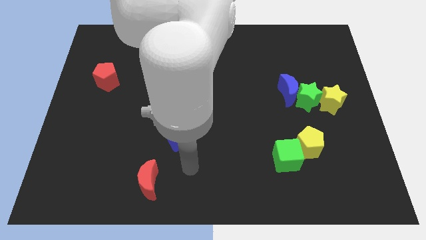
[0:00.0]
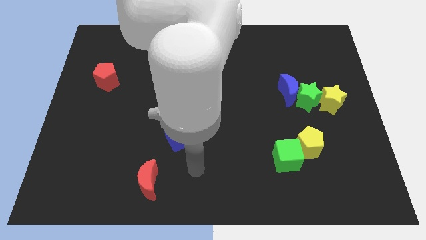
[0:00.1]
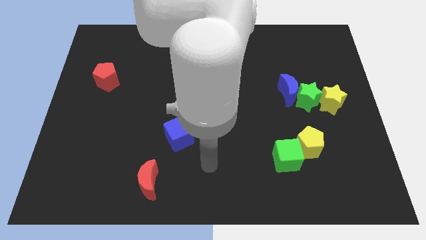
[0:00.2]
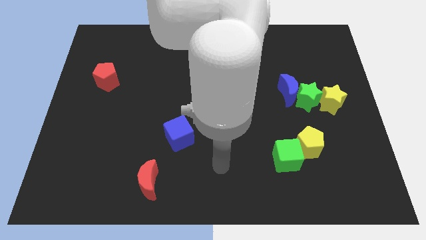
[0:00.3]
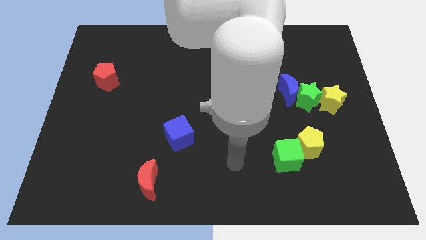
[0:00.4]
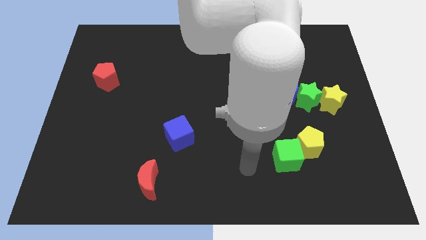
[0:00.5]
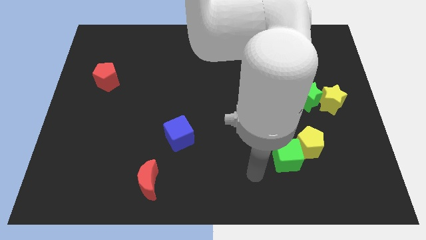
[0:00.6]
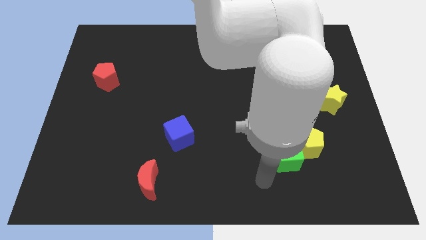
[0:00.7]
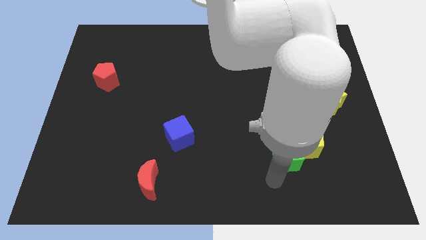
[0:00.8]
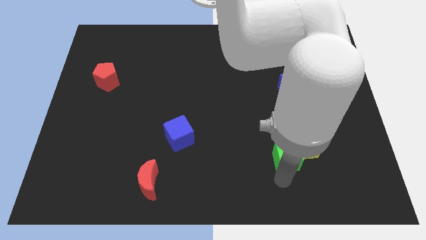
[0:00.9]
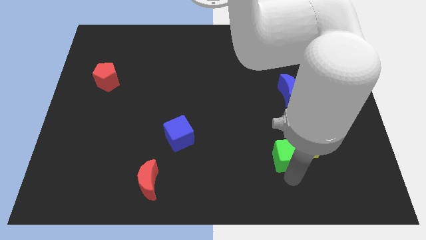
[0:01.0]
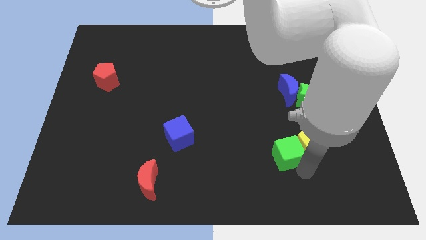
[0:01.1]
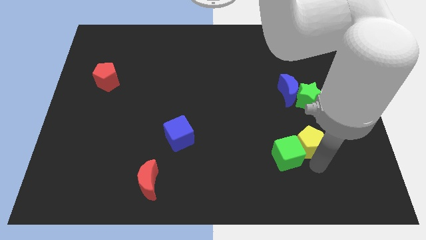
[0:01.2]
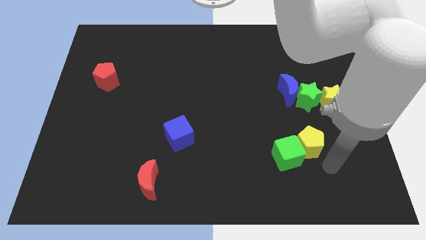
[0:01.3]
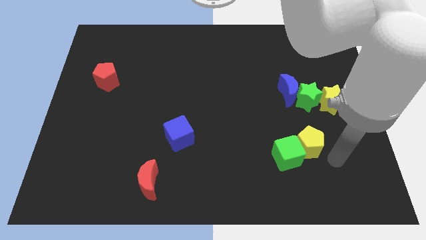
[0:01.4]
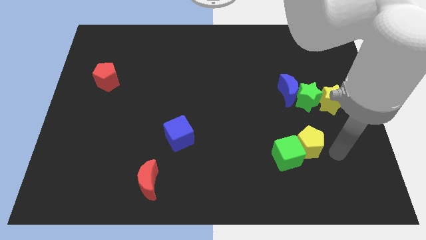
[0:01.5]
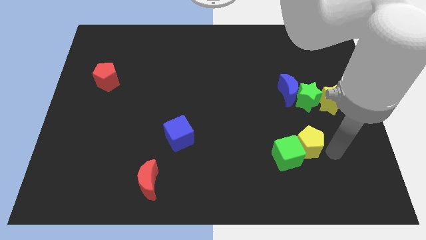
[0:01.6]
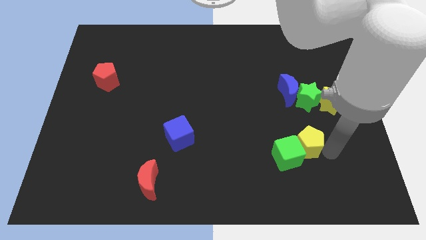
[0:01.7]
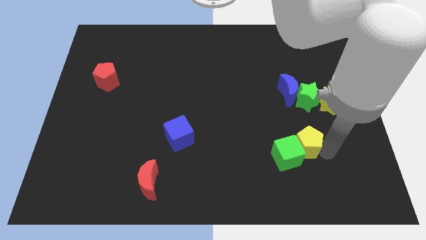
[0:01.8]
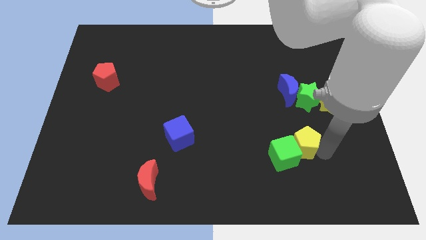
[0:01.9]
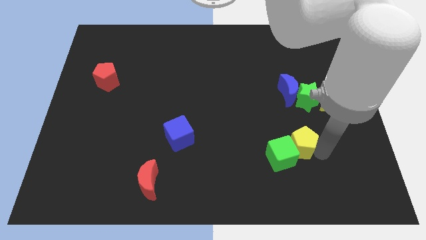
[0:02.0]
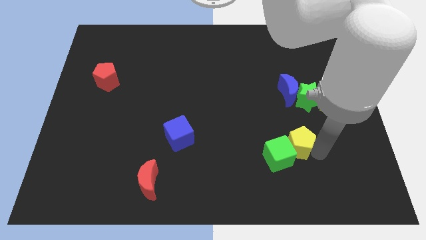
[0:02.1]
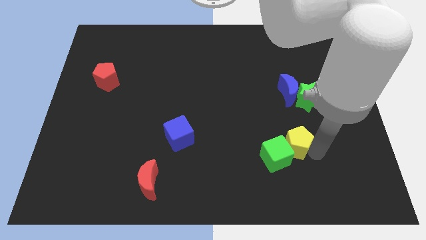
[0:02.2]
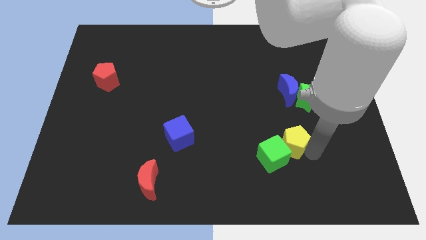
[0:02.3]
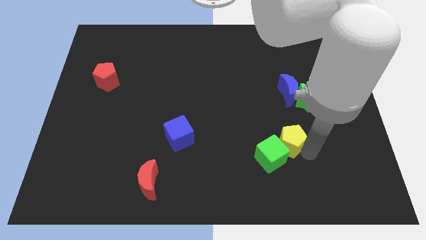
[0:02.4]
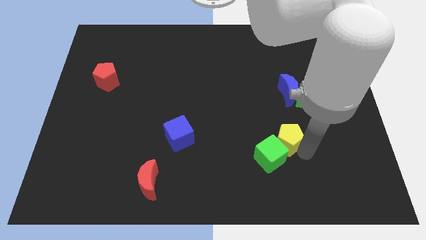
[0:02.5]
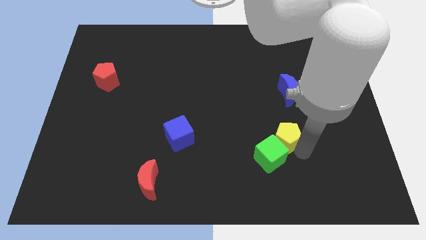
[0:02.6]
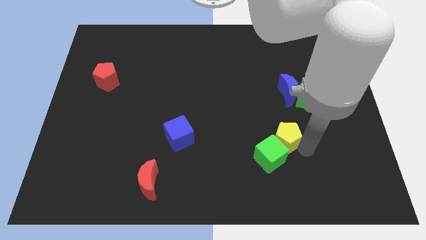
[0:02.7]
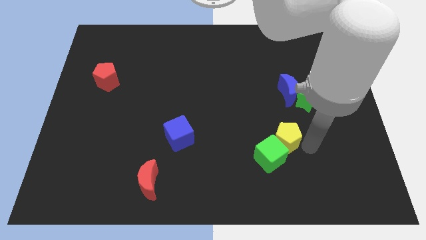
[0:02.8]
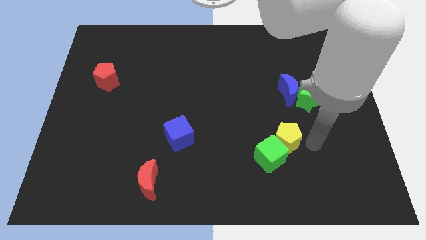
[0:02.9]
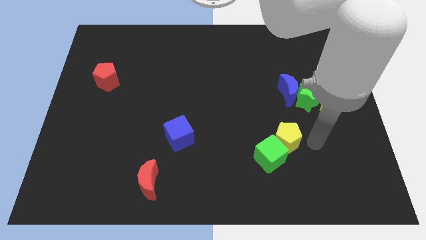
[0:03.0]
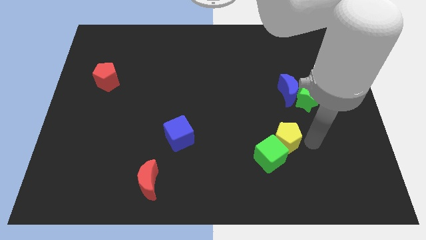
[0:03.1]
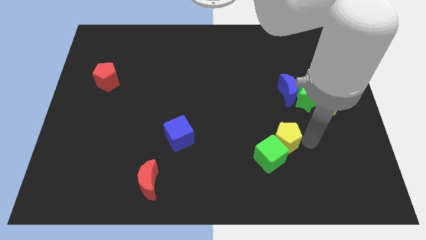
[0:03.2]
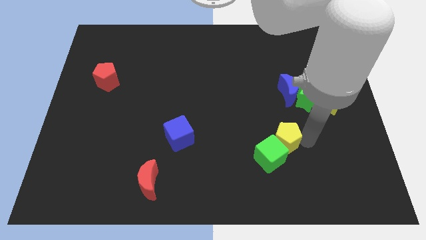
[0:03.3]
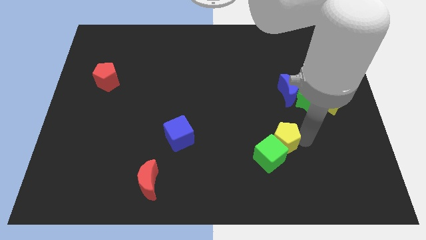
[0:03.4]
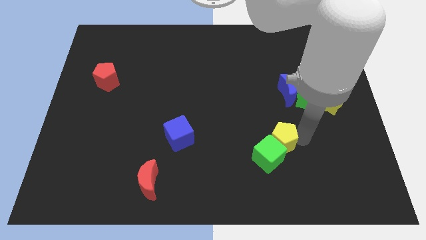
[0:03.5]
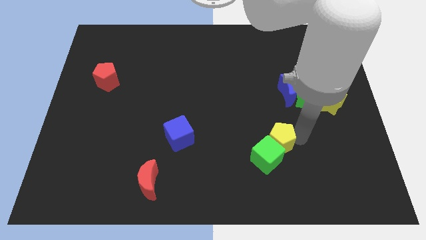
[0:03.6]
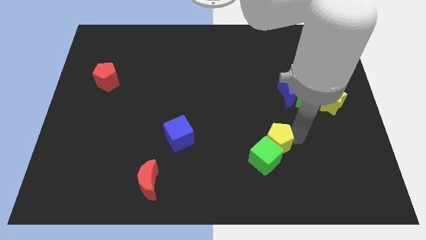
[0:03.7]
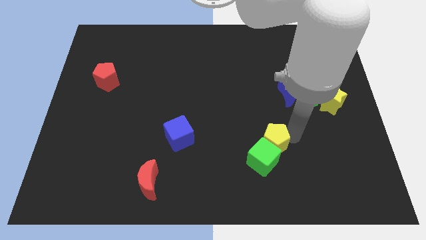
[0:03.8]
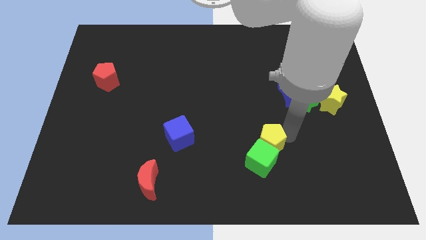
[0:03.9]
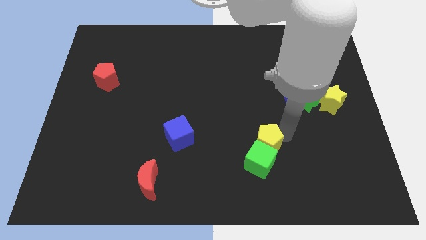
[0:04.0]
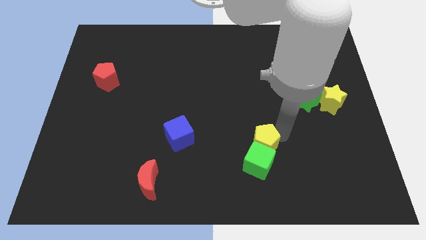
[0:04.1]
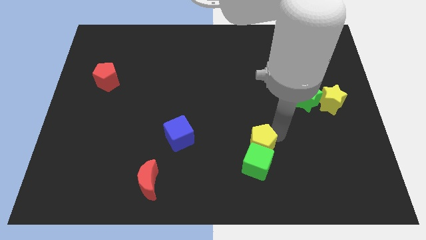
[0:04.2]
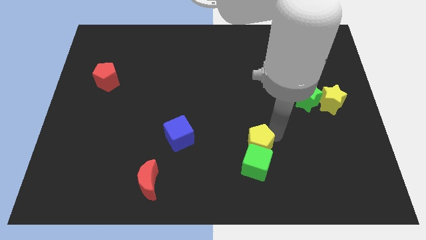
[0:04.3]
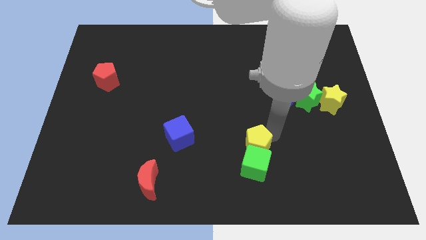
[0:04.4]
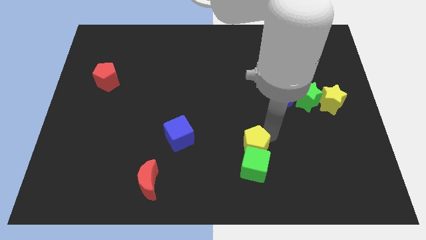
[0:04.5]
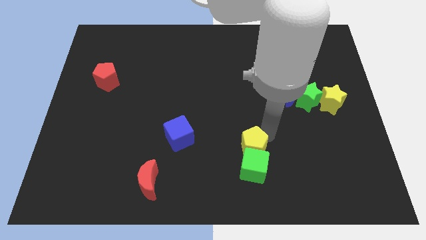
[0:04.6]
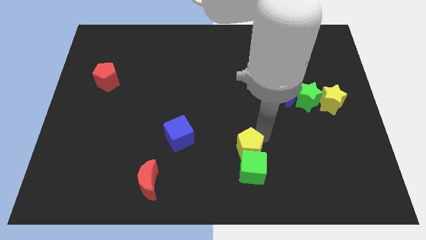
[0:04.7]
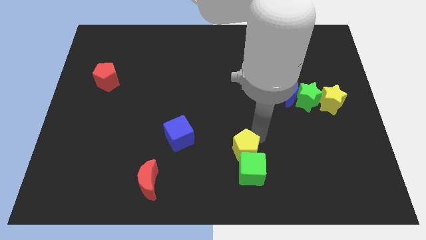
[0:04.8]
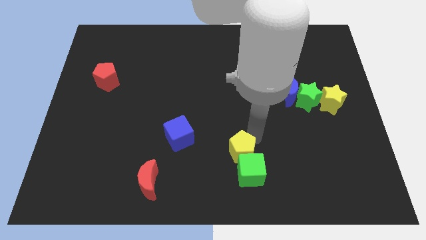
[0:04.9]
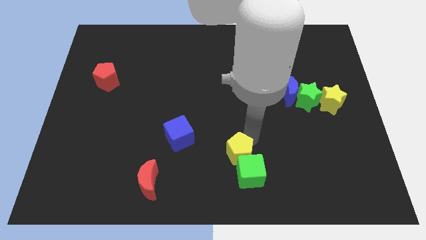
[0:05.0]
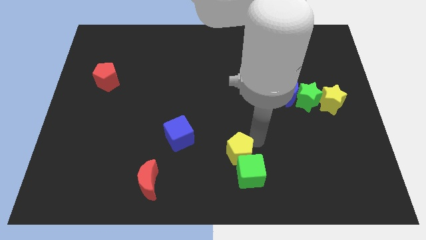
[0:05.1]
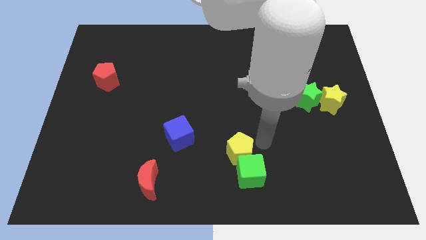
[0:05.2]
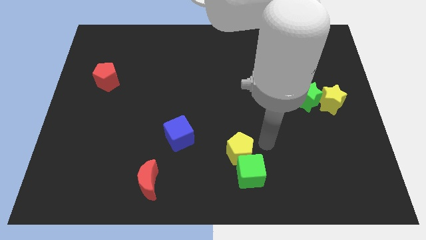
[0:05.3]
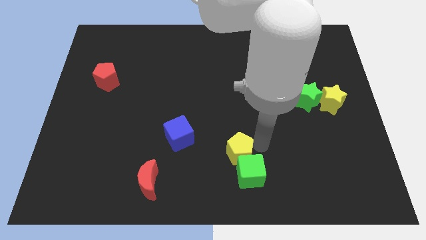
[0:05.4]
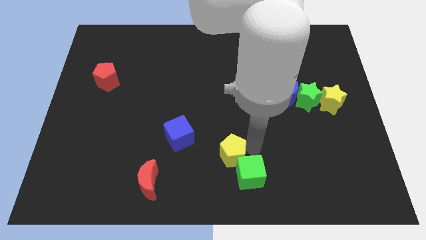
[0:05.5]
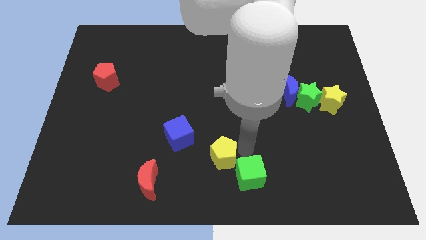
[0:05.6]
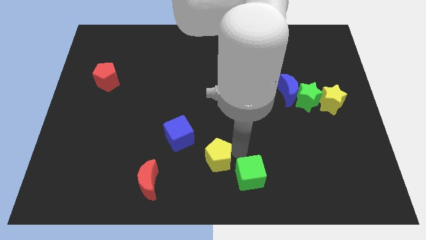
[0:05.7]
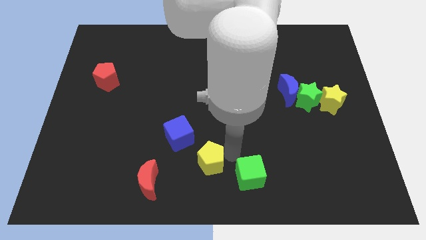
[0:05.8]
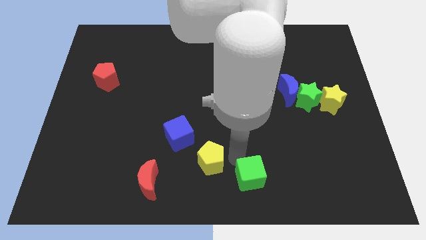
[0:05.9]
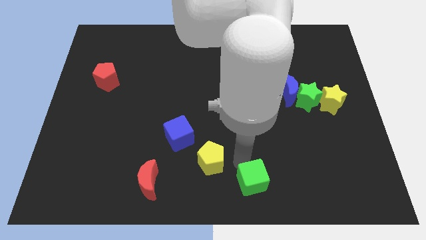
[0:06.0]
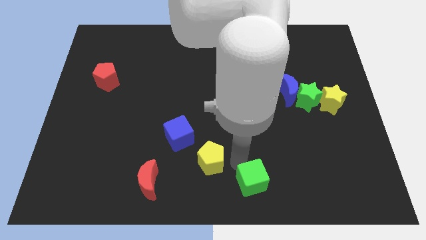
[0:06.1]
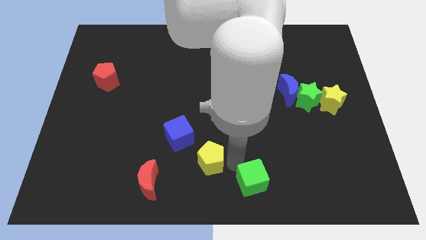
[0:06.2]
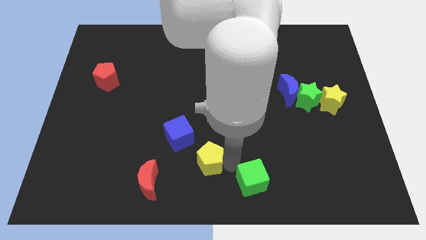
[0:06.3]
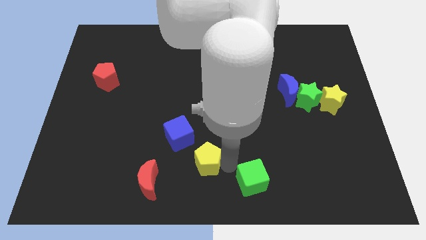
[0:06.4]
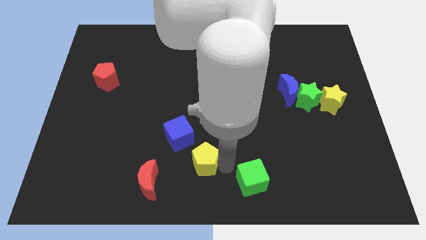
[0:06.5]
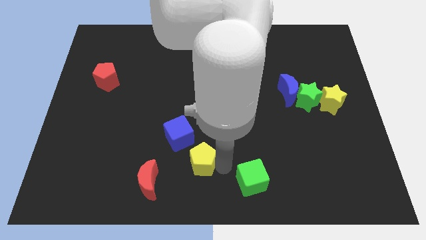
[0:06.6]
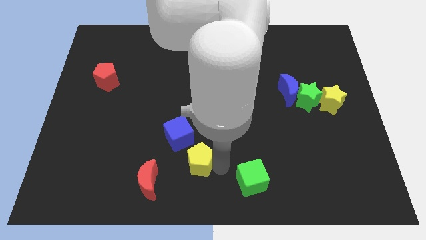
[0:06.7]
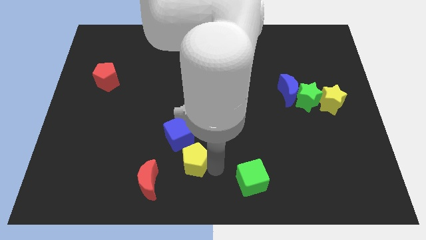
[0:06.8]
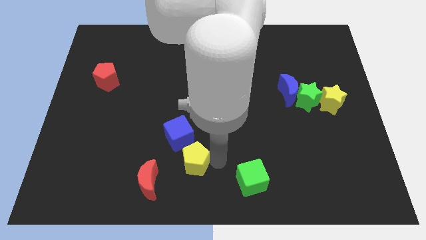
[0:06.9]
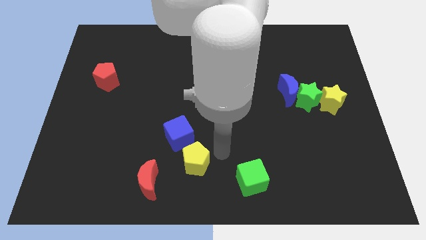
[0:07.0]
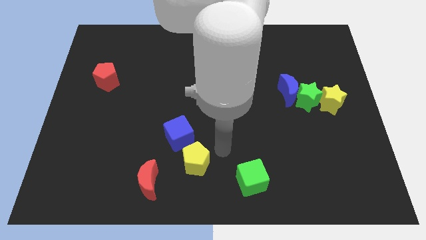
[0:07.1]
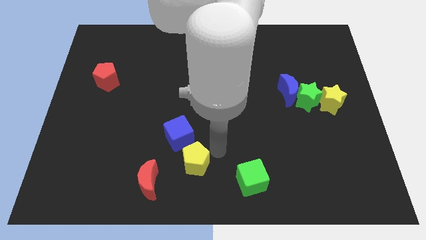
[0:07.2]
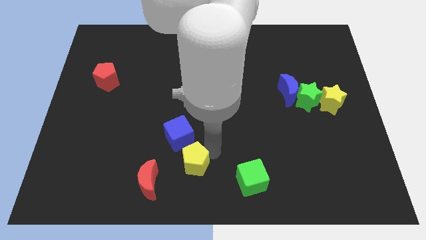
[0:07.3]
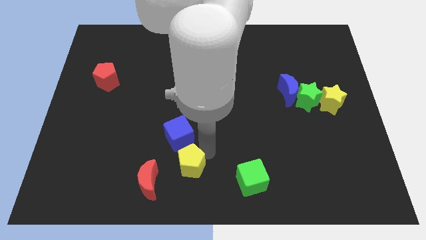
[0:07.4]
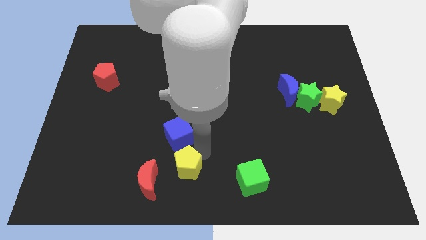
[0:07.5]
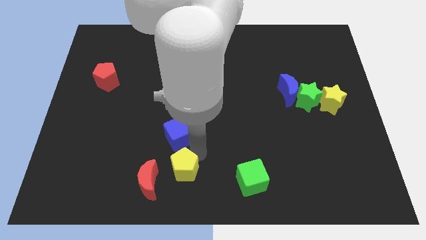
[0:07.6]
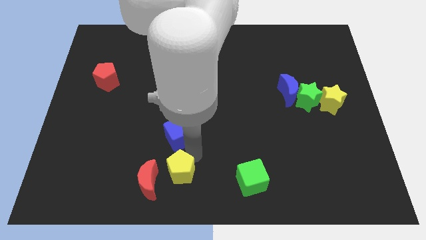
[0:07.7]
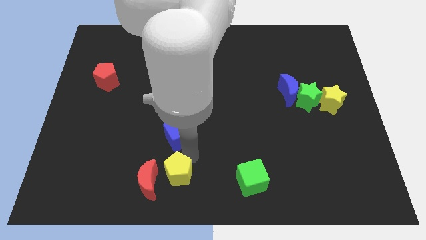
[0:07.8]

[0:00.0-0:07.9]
push the yellow pentagon towards the red moon

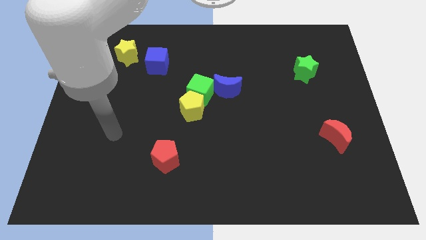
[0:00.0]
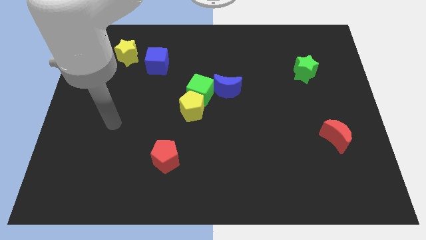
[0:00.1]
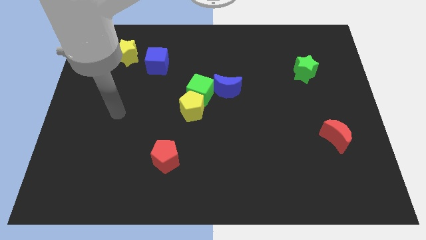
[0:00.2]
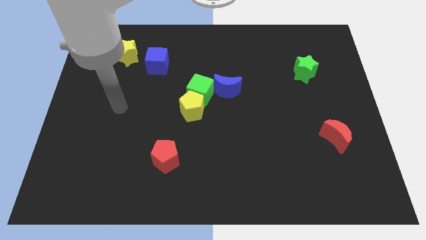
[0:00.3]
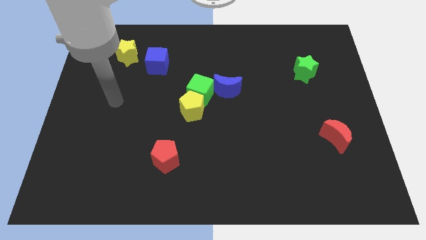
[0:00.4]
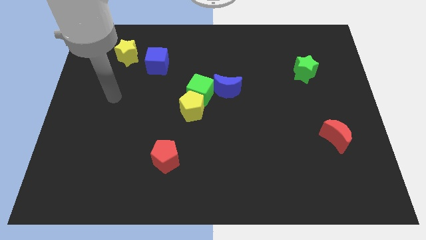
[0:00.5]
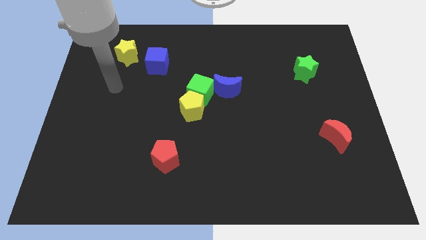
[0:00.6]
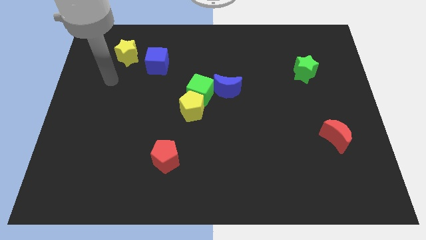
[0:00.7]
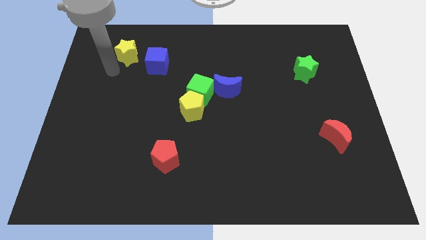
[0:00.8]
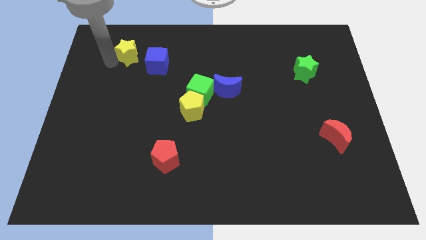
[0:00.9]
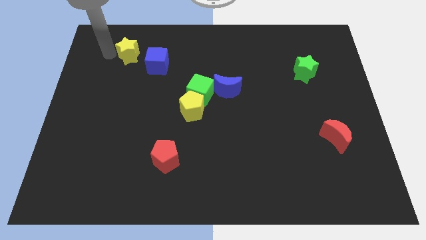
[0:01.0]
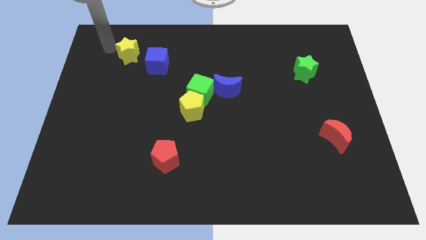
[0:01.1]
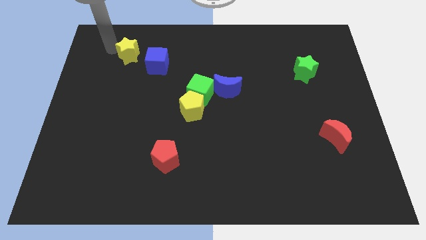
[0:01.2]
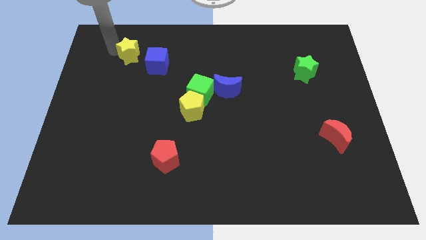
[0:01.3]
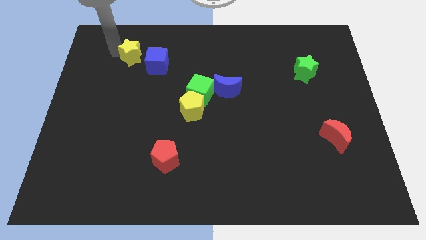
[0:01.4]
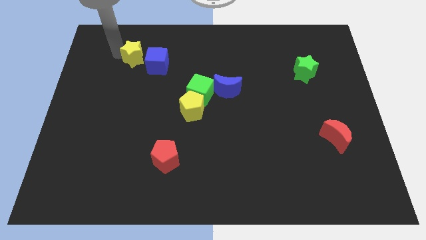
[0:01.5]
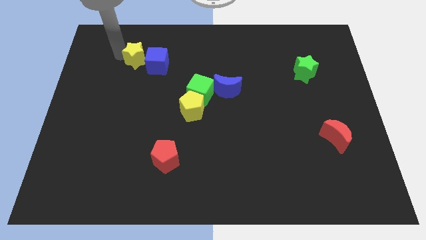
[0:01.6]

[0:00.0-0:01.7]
slide the yellow star to the blue cube
